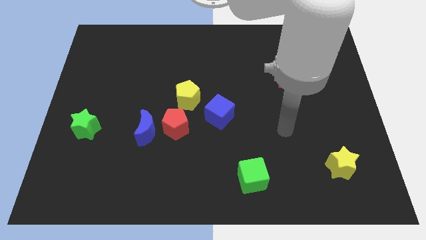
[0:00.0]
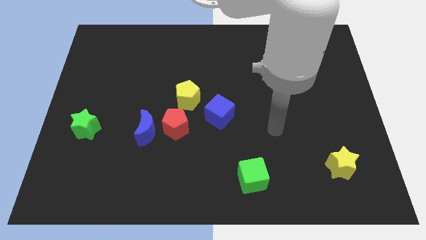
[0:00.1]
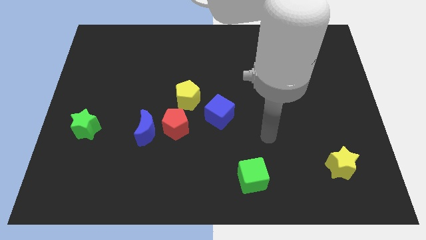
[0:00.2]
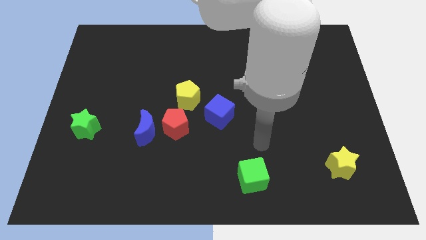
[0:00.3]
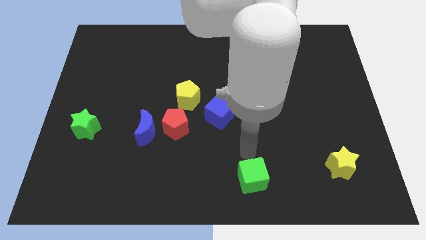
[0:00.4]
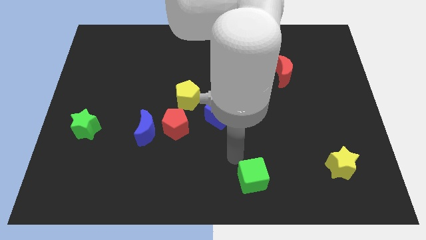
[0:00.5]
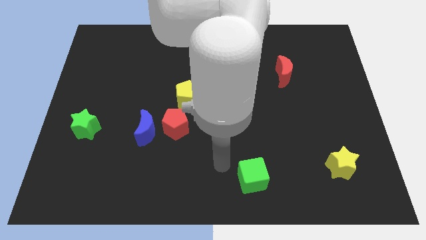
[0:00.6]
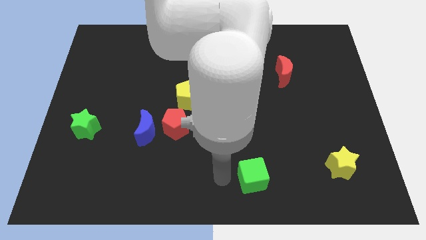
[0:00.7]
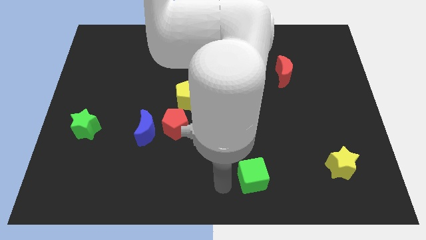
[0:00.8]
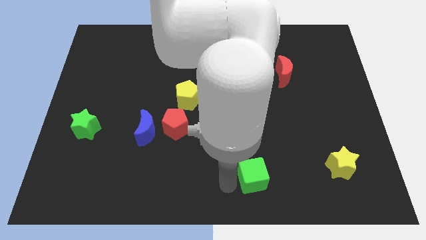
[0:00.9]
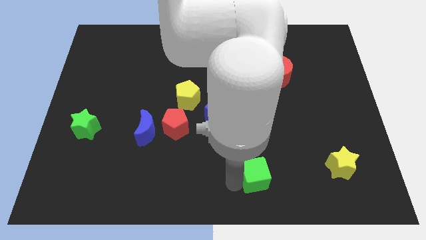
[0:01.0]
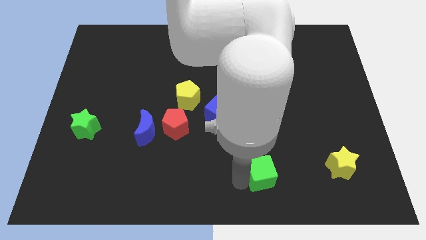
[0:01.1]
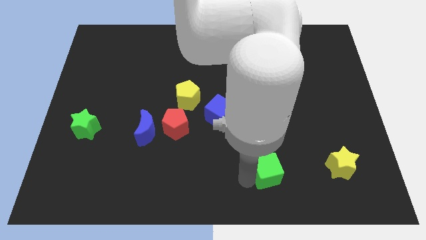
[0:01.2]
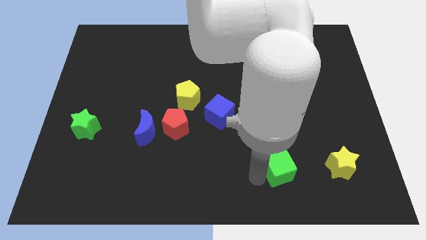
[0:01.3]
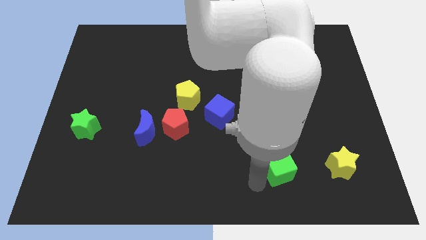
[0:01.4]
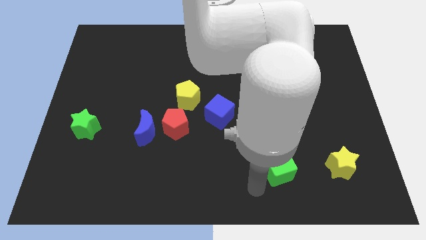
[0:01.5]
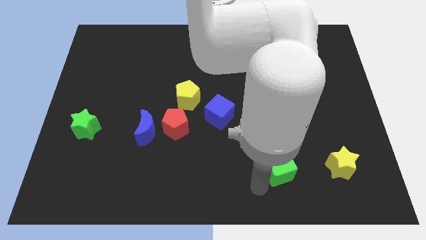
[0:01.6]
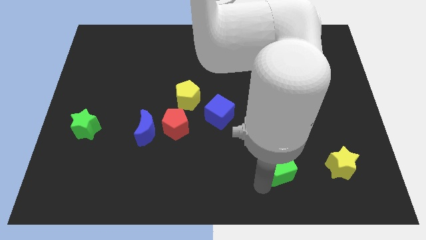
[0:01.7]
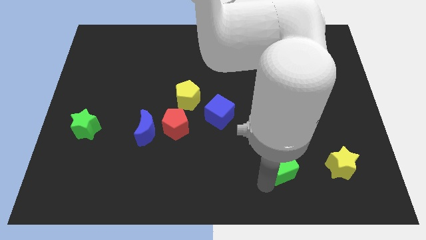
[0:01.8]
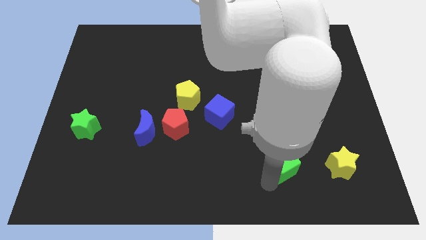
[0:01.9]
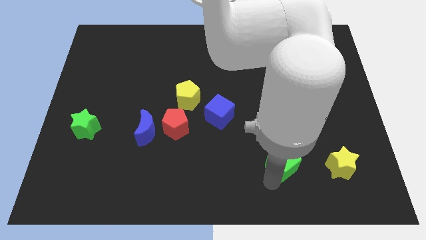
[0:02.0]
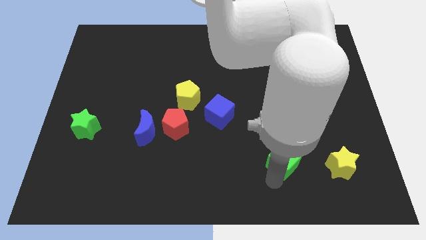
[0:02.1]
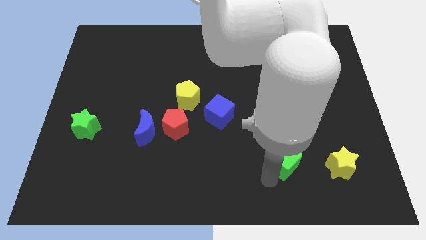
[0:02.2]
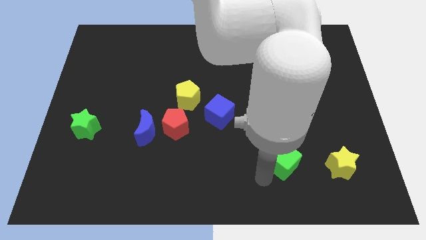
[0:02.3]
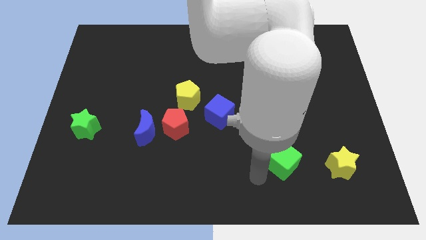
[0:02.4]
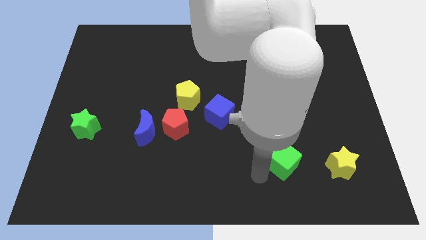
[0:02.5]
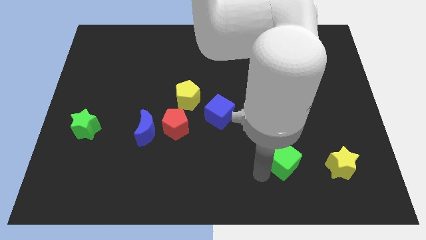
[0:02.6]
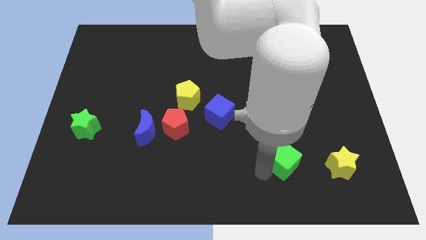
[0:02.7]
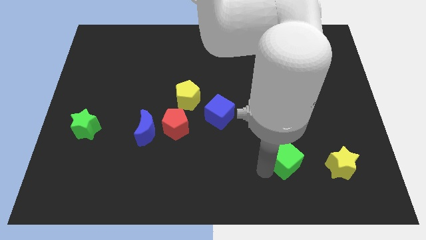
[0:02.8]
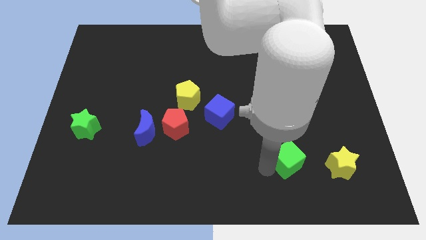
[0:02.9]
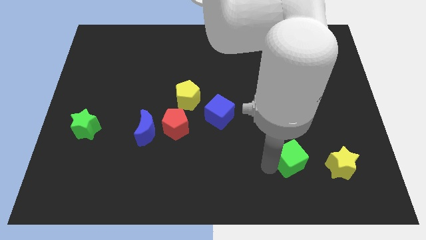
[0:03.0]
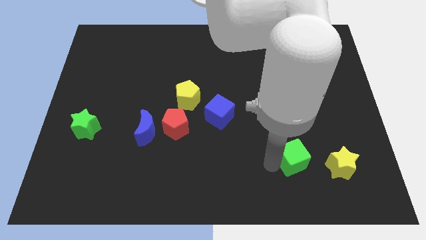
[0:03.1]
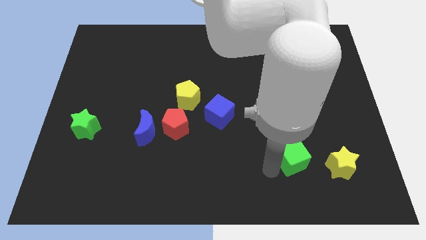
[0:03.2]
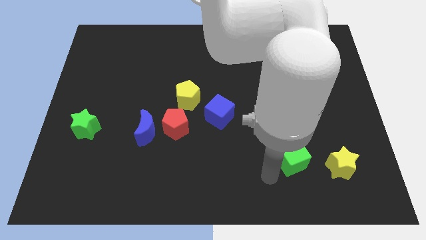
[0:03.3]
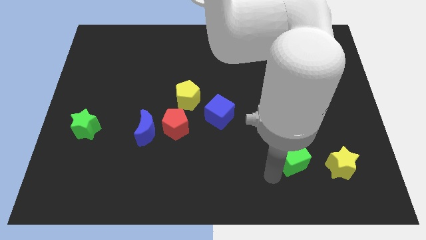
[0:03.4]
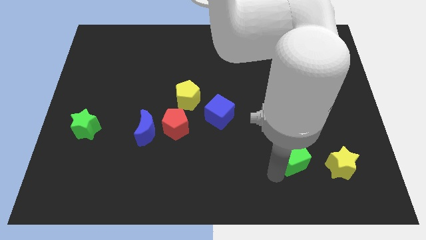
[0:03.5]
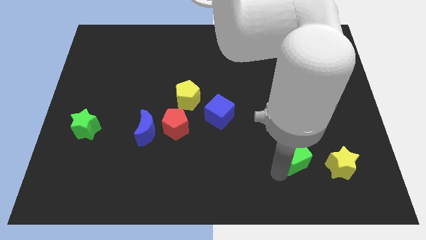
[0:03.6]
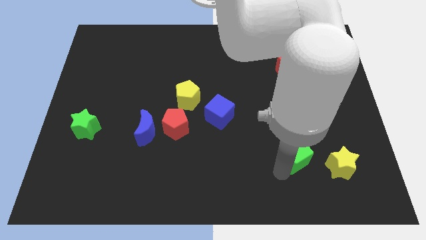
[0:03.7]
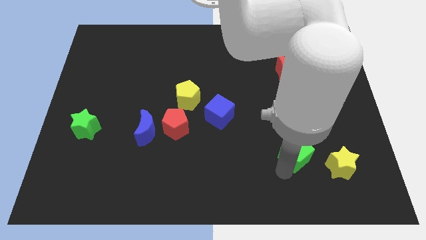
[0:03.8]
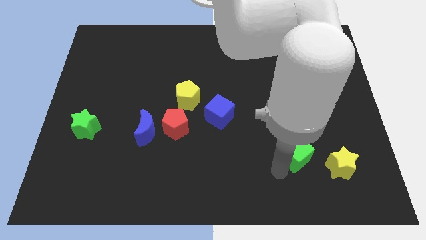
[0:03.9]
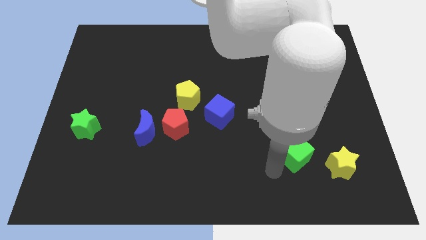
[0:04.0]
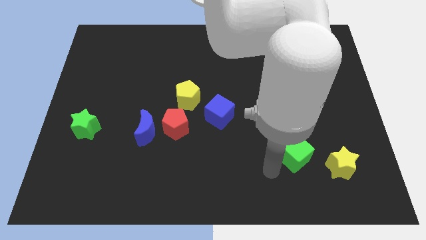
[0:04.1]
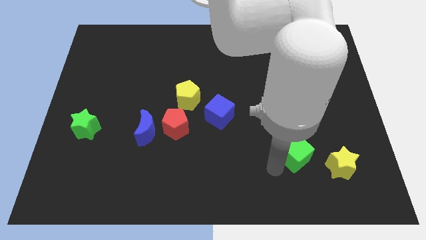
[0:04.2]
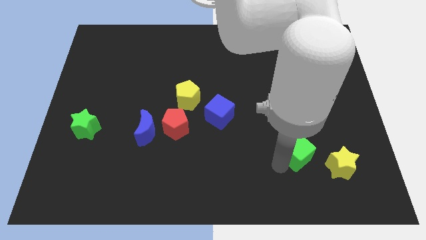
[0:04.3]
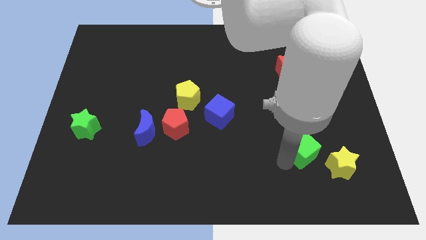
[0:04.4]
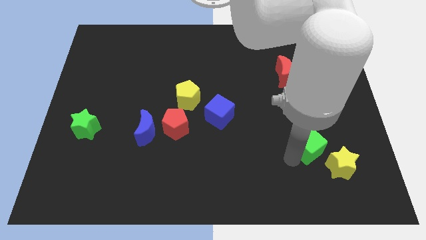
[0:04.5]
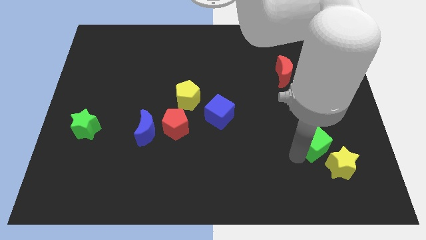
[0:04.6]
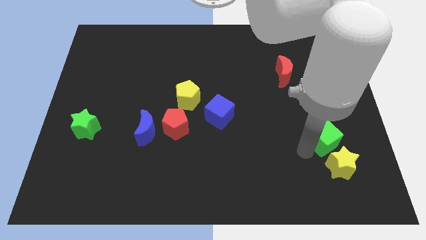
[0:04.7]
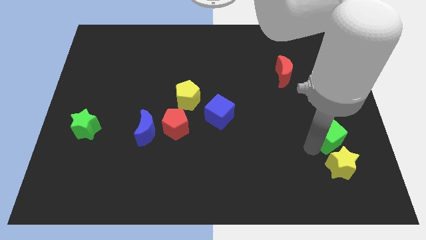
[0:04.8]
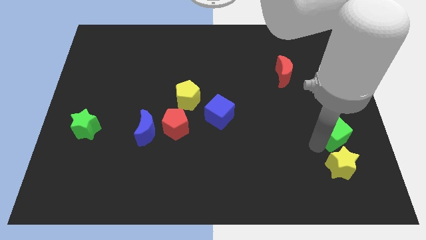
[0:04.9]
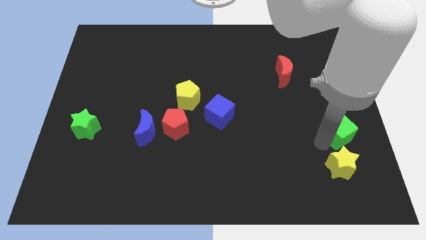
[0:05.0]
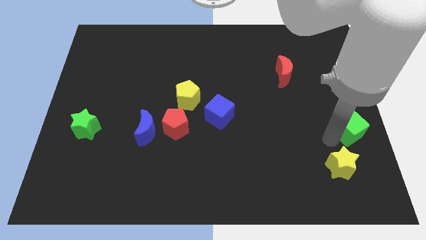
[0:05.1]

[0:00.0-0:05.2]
push the green cube to the center right

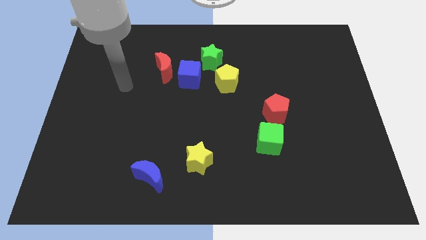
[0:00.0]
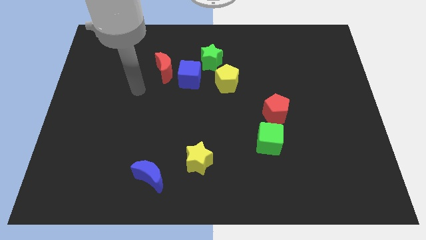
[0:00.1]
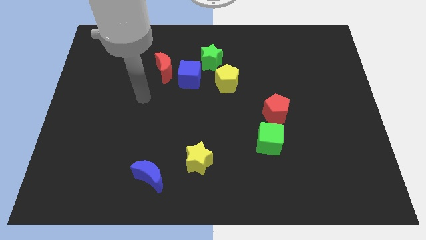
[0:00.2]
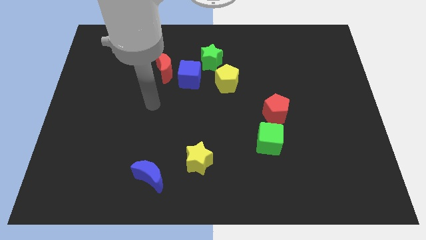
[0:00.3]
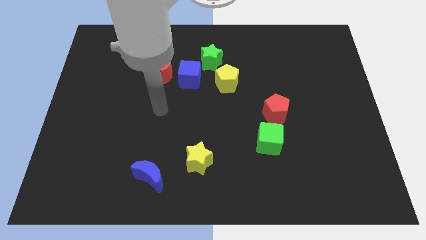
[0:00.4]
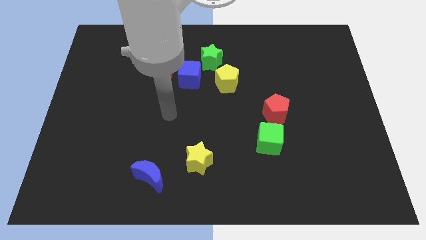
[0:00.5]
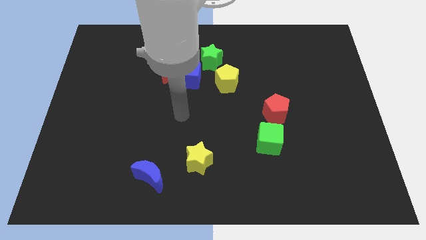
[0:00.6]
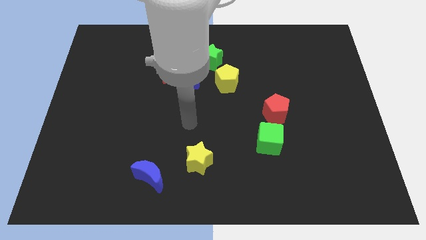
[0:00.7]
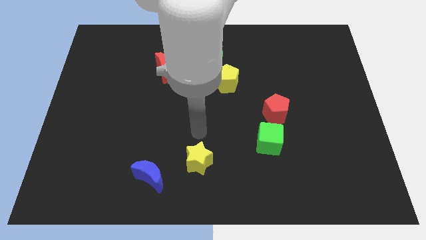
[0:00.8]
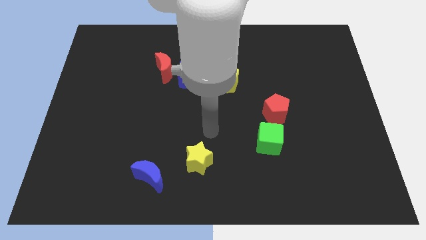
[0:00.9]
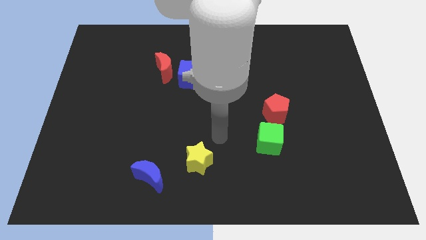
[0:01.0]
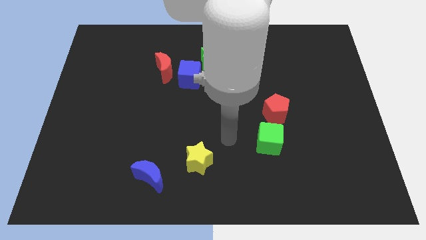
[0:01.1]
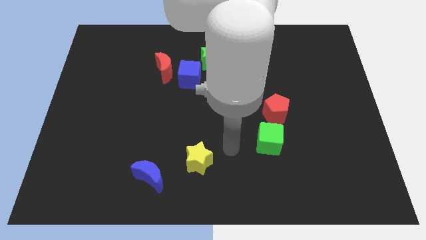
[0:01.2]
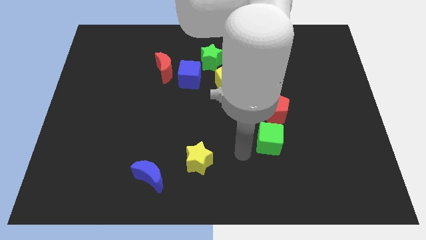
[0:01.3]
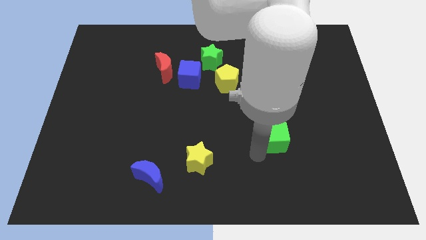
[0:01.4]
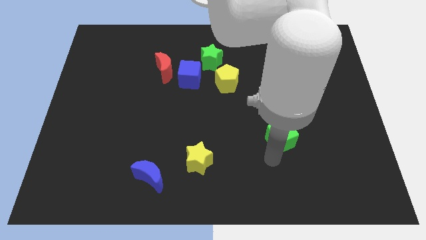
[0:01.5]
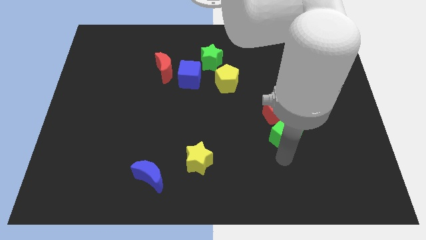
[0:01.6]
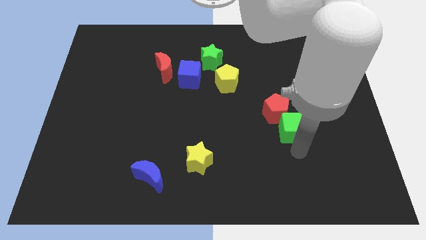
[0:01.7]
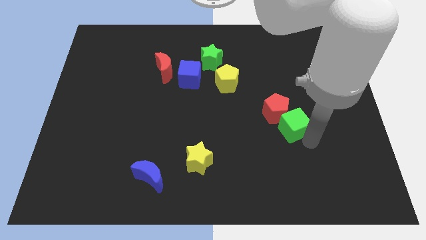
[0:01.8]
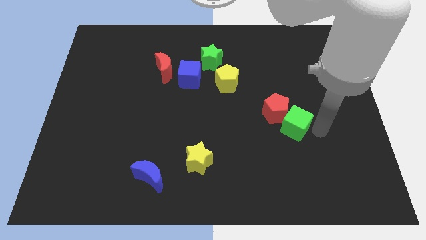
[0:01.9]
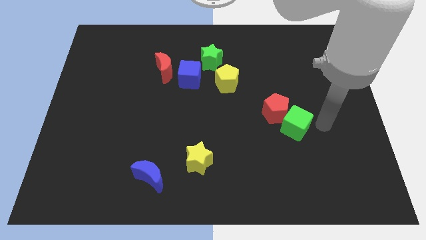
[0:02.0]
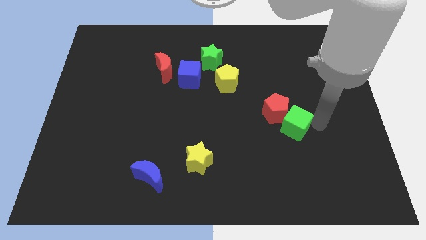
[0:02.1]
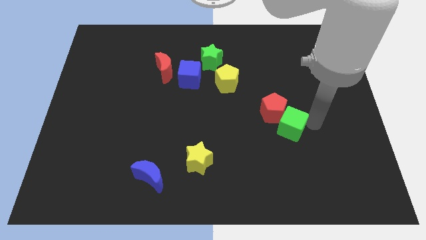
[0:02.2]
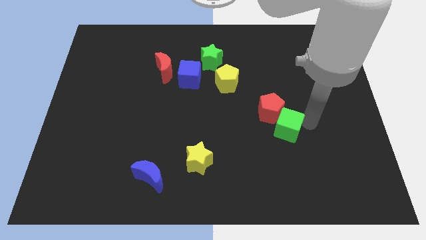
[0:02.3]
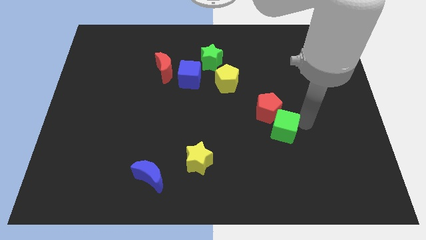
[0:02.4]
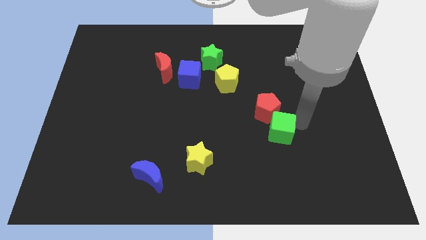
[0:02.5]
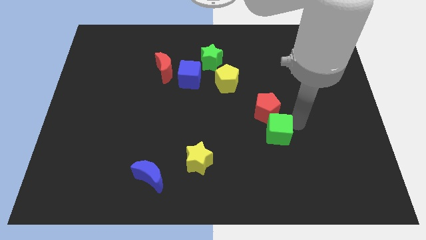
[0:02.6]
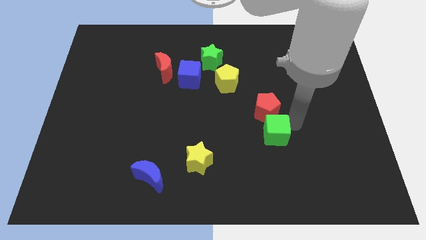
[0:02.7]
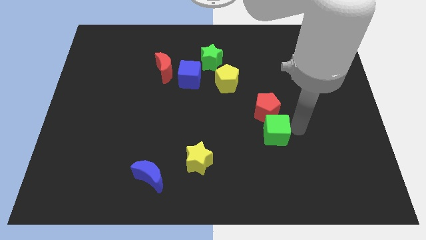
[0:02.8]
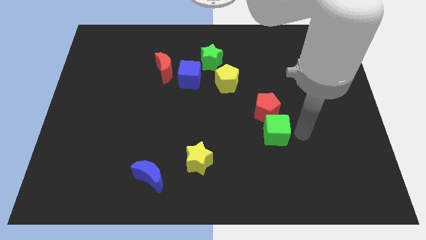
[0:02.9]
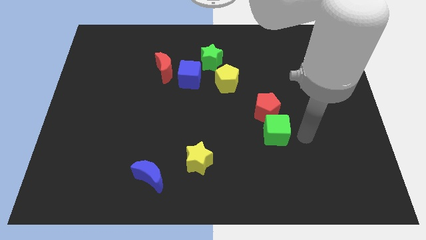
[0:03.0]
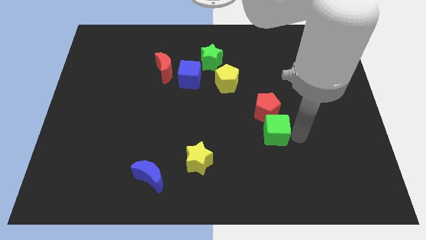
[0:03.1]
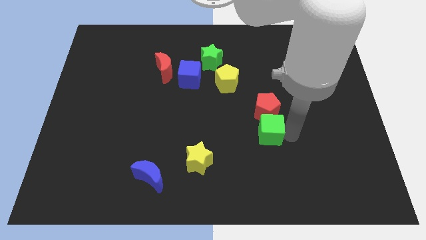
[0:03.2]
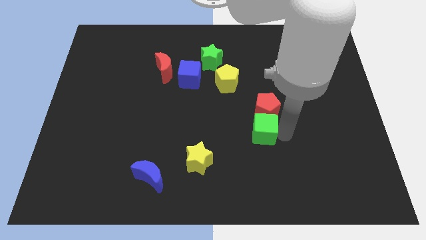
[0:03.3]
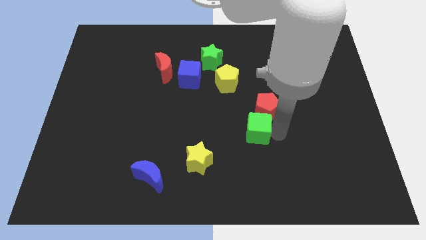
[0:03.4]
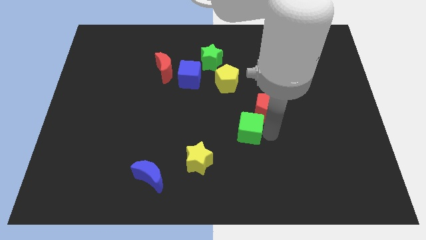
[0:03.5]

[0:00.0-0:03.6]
put the green cube to the center of the board
